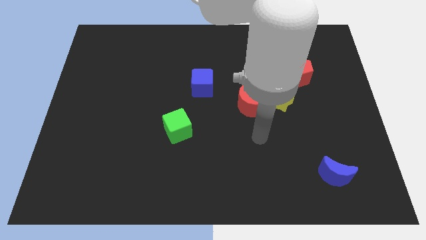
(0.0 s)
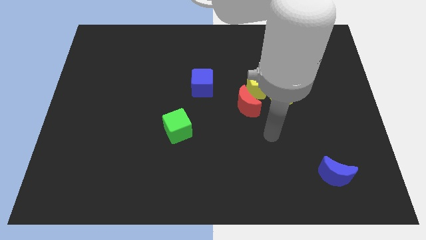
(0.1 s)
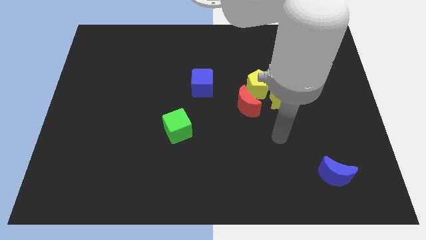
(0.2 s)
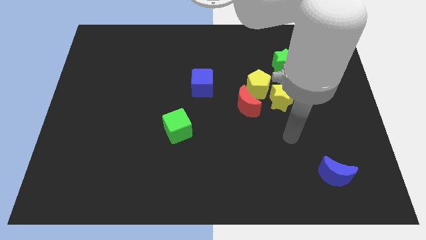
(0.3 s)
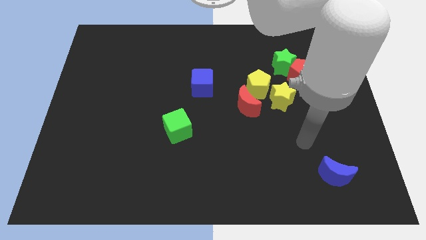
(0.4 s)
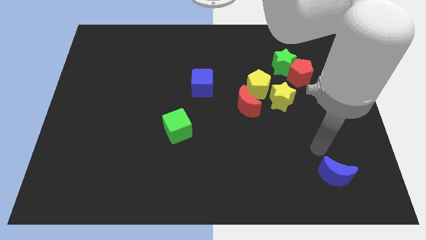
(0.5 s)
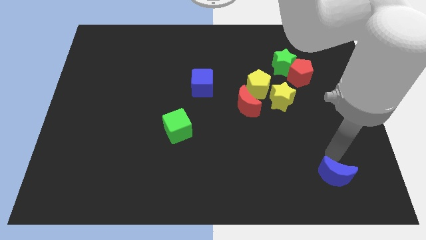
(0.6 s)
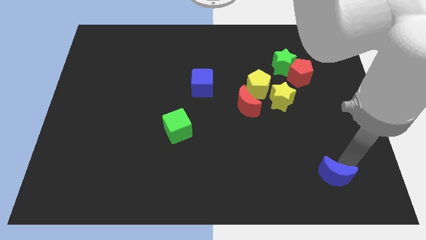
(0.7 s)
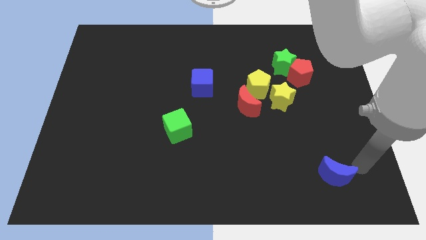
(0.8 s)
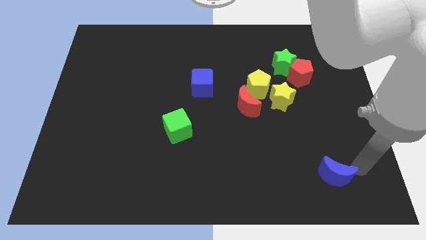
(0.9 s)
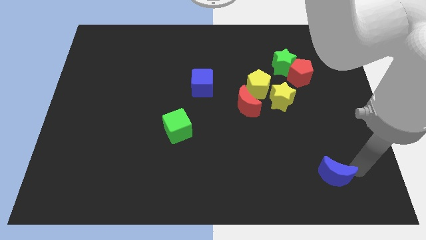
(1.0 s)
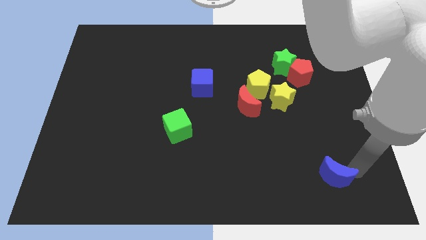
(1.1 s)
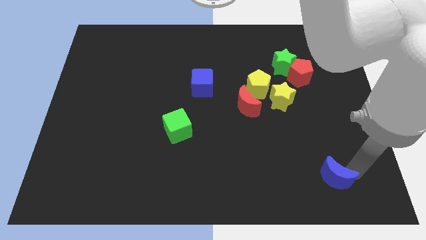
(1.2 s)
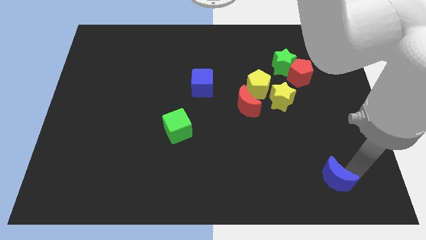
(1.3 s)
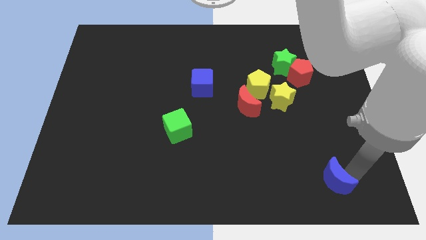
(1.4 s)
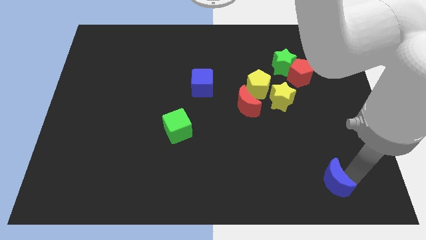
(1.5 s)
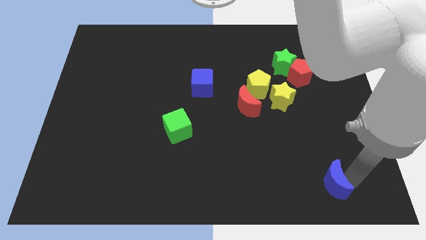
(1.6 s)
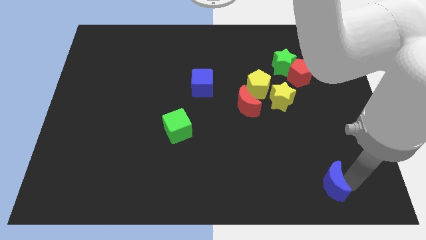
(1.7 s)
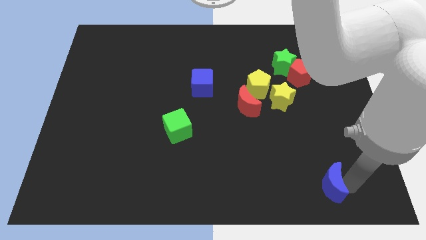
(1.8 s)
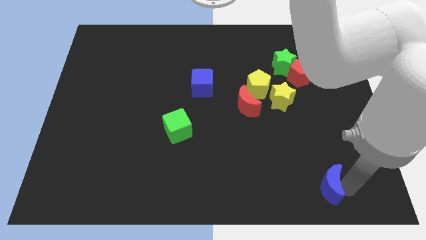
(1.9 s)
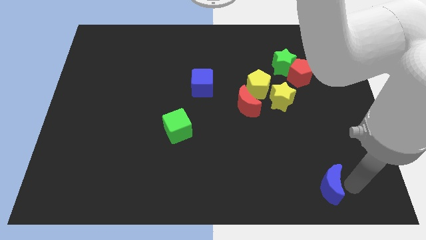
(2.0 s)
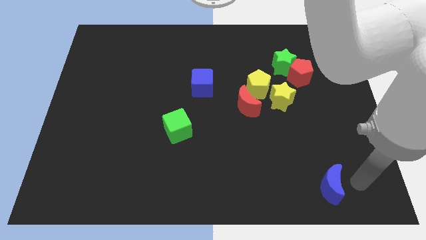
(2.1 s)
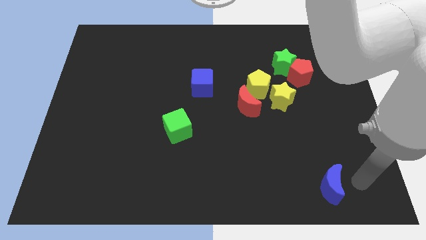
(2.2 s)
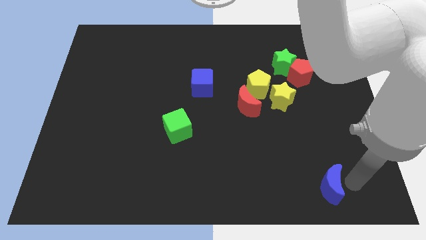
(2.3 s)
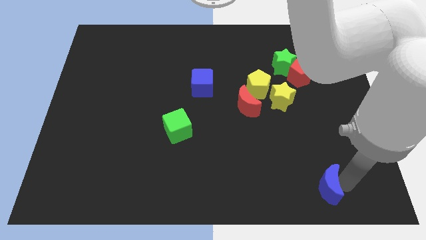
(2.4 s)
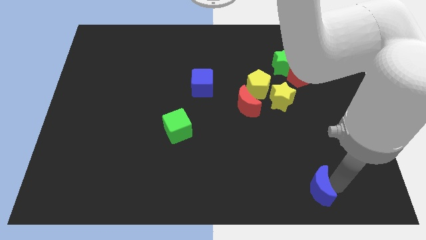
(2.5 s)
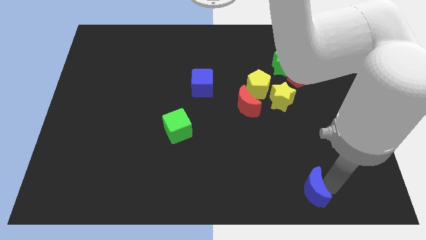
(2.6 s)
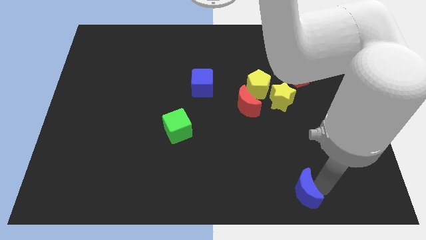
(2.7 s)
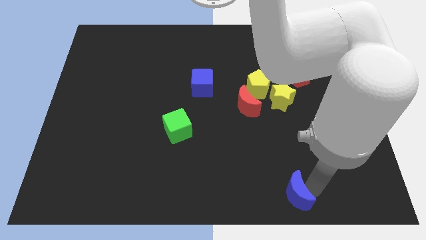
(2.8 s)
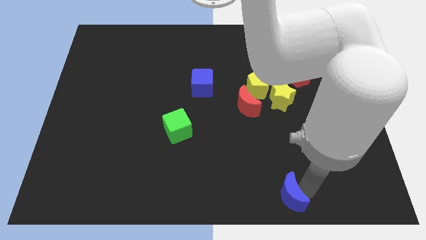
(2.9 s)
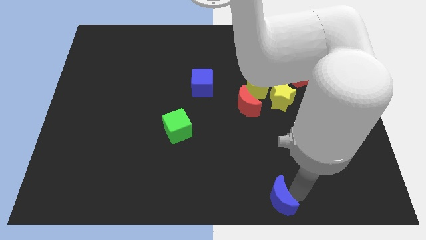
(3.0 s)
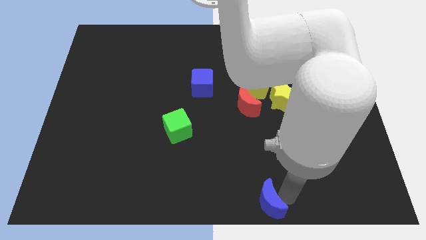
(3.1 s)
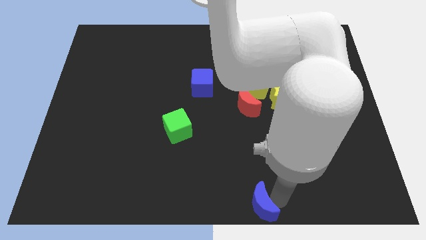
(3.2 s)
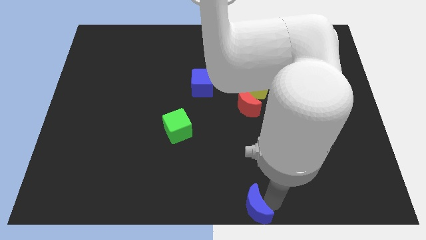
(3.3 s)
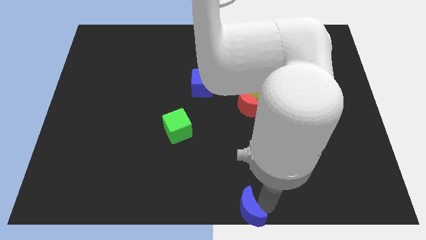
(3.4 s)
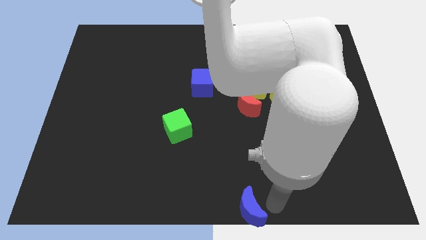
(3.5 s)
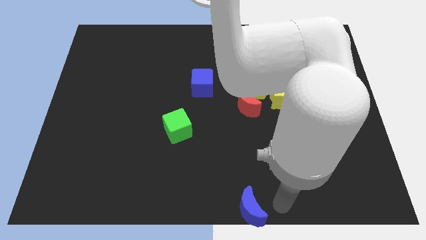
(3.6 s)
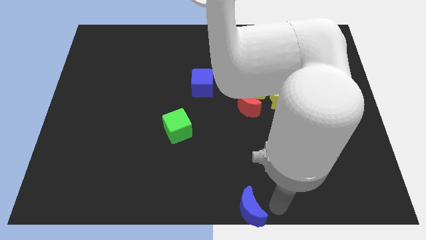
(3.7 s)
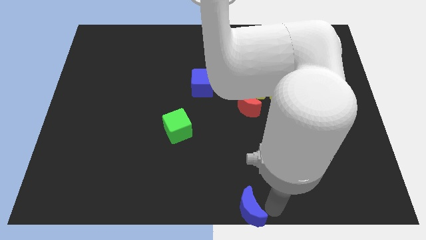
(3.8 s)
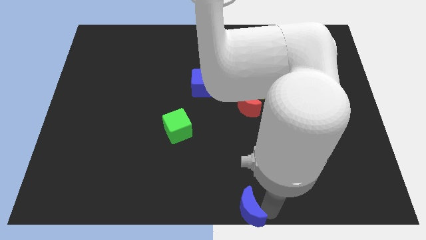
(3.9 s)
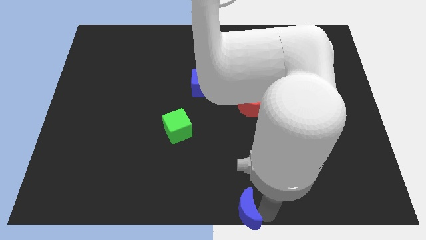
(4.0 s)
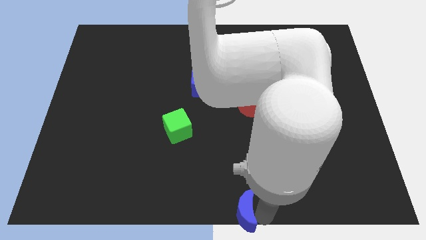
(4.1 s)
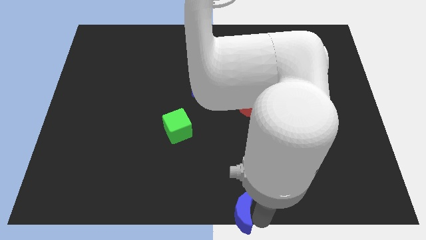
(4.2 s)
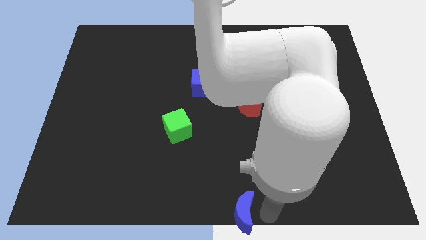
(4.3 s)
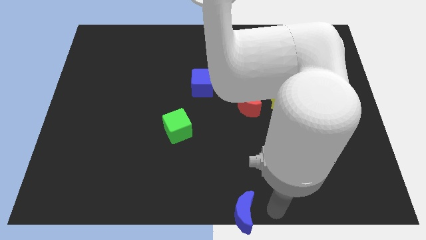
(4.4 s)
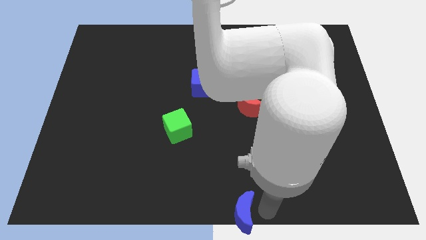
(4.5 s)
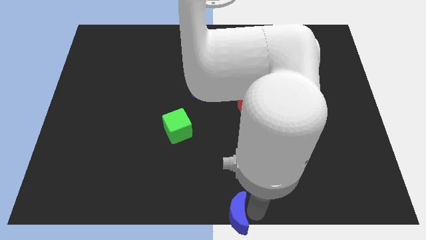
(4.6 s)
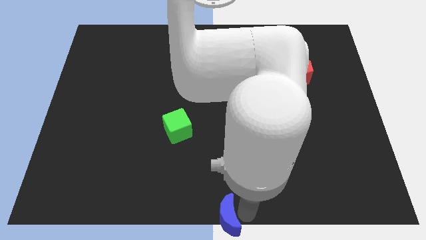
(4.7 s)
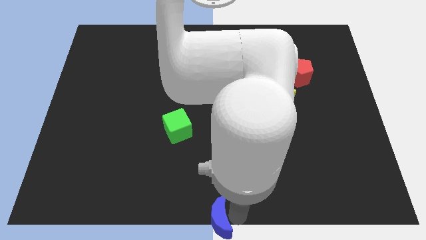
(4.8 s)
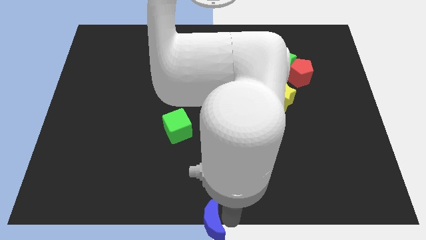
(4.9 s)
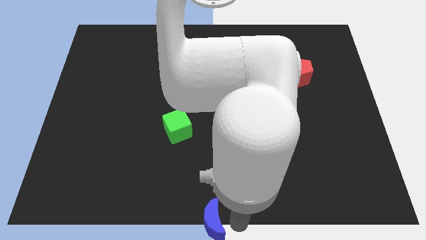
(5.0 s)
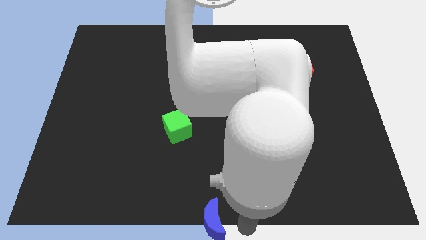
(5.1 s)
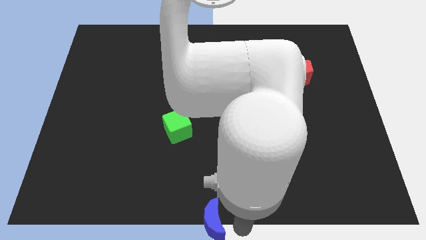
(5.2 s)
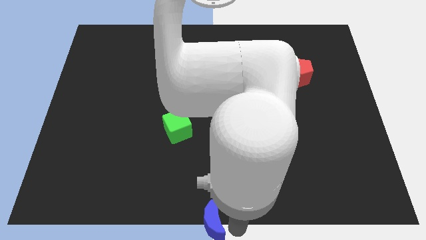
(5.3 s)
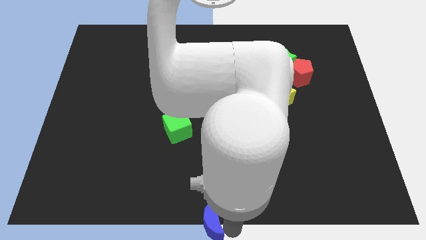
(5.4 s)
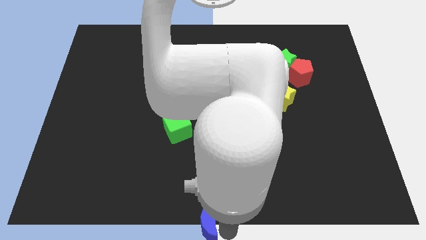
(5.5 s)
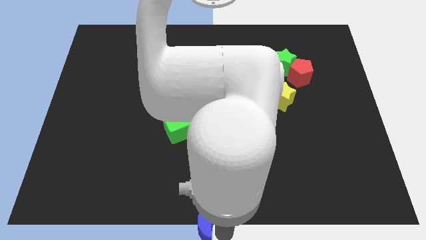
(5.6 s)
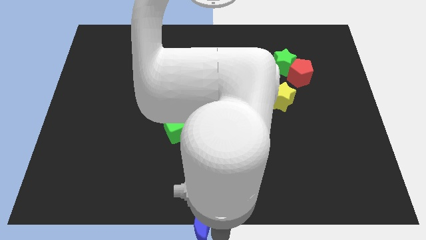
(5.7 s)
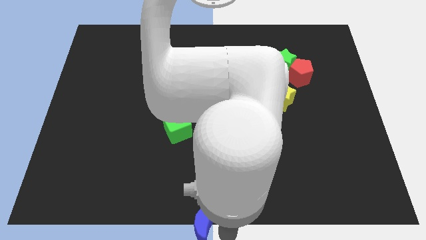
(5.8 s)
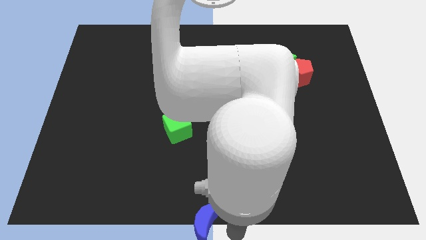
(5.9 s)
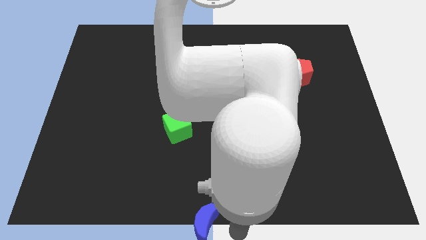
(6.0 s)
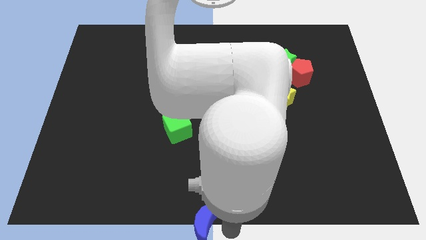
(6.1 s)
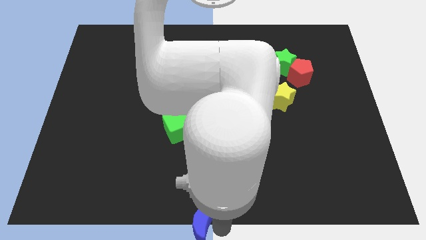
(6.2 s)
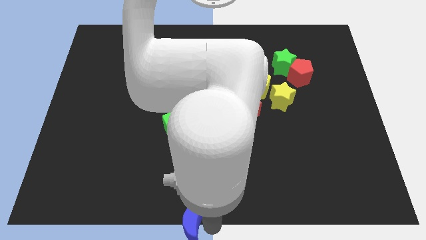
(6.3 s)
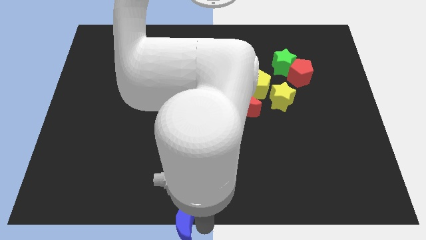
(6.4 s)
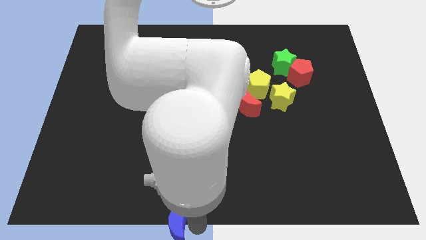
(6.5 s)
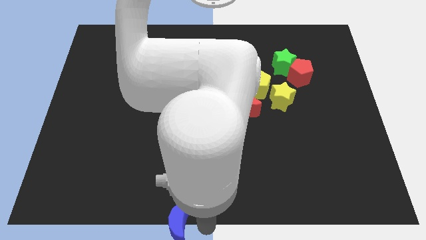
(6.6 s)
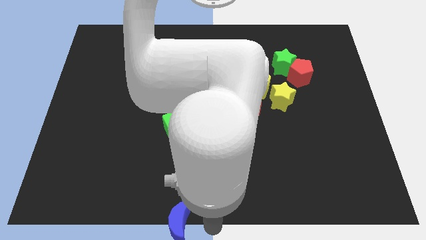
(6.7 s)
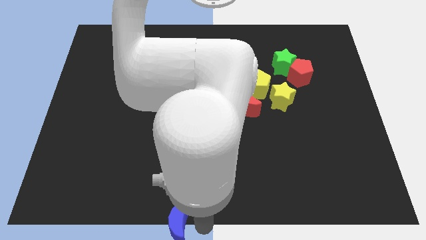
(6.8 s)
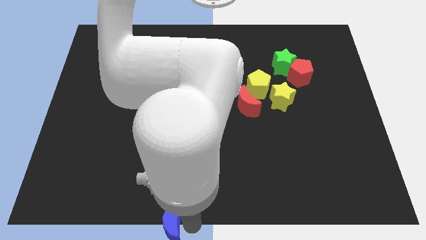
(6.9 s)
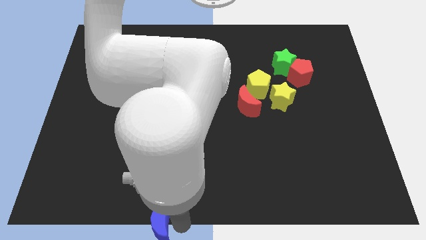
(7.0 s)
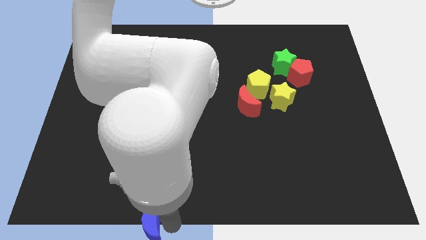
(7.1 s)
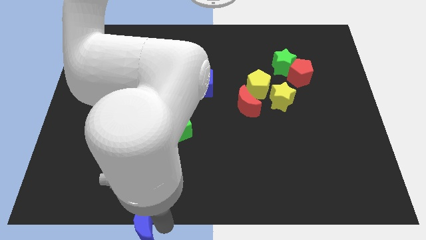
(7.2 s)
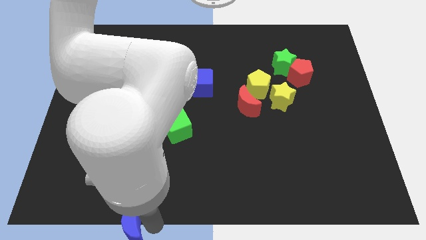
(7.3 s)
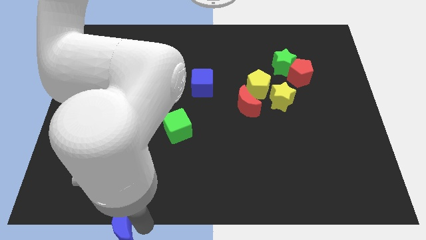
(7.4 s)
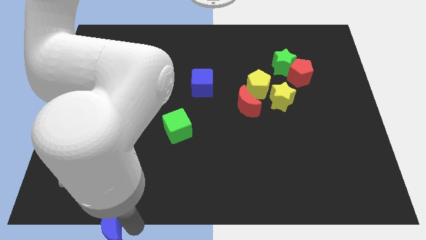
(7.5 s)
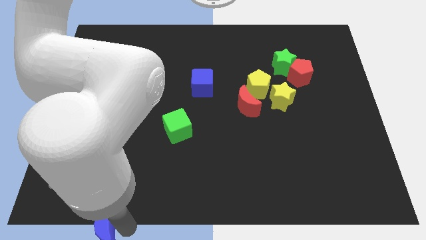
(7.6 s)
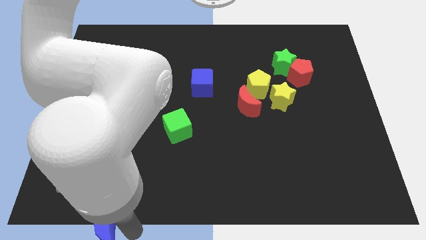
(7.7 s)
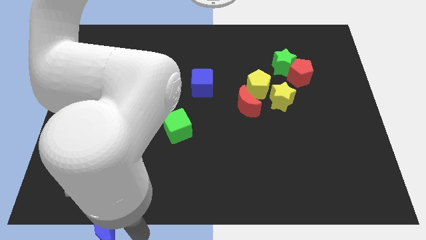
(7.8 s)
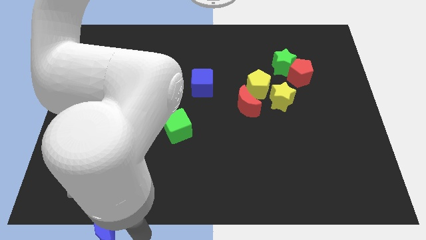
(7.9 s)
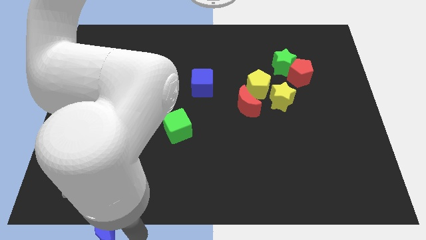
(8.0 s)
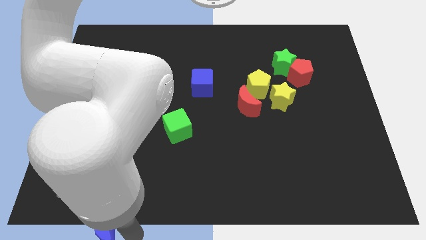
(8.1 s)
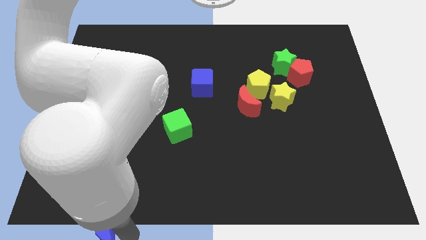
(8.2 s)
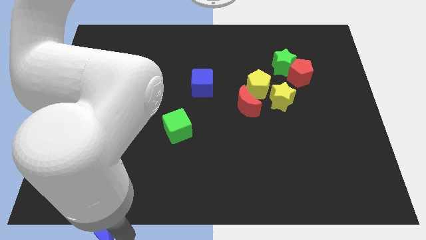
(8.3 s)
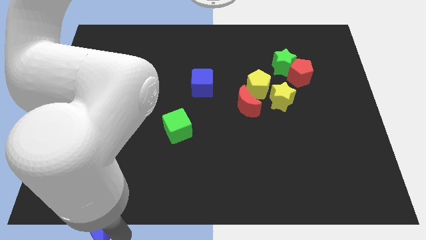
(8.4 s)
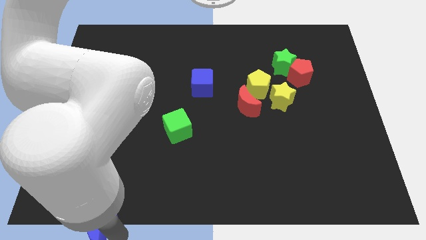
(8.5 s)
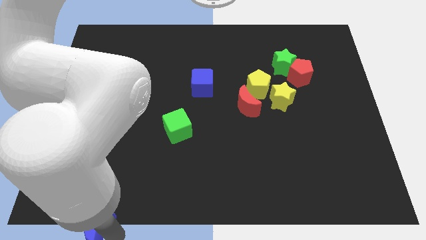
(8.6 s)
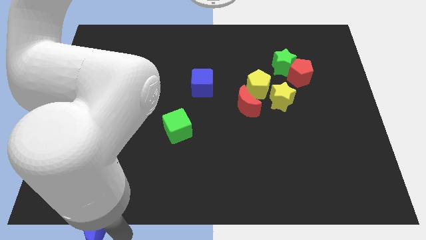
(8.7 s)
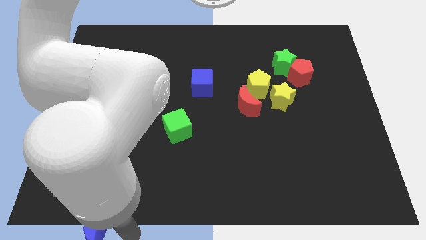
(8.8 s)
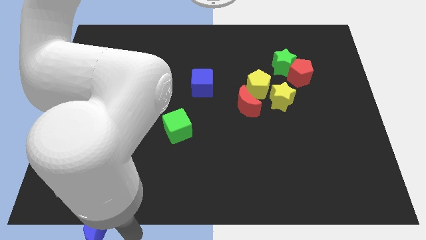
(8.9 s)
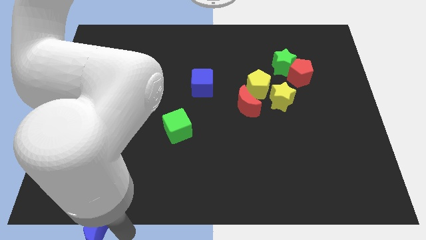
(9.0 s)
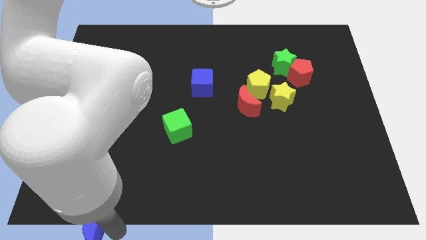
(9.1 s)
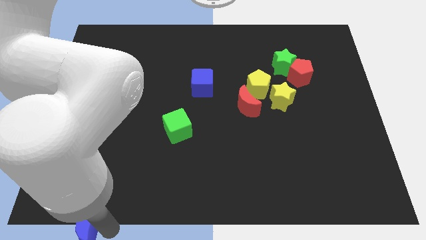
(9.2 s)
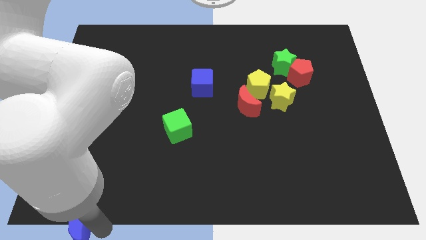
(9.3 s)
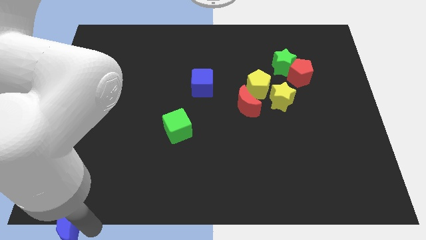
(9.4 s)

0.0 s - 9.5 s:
push the blue moon to the bottom left
